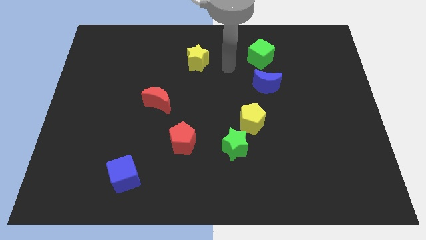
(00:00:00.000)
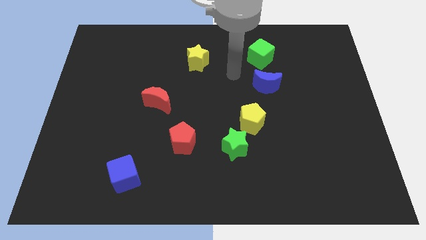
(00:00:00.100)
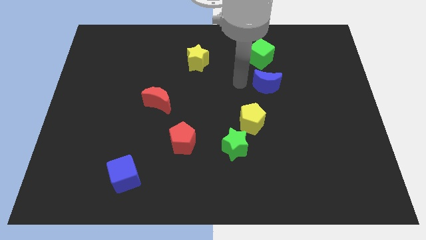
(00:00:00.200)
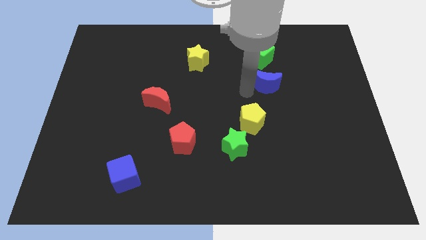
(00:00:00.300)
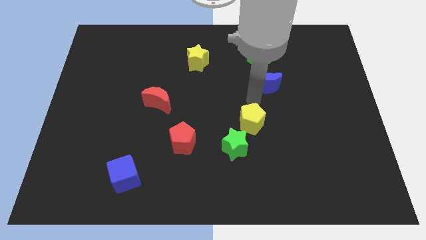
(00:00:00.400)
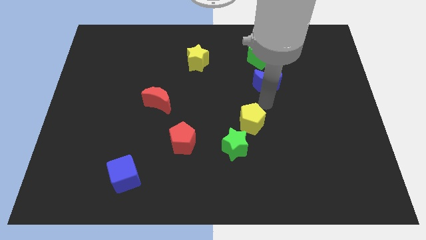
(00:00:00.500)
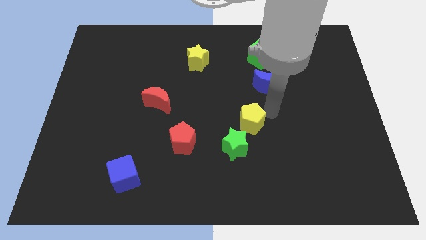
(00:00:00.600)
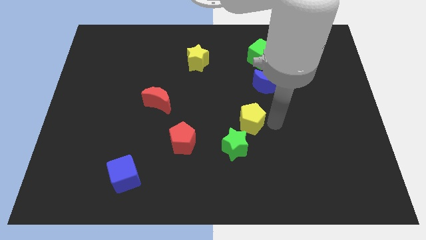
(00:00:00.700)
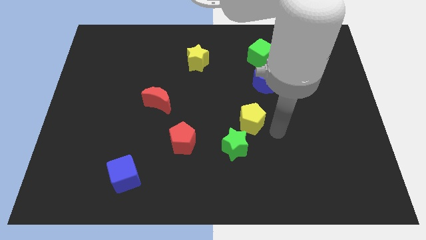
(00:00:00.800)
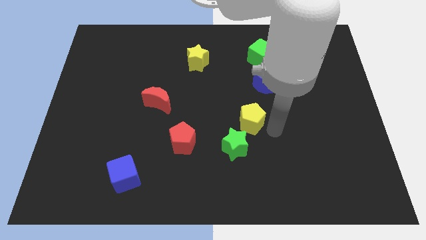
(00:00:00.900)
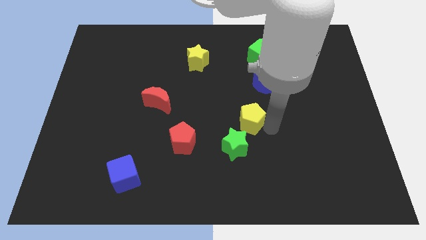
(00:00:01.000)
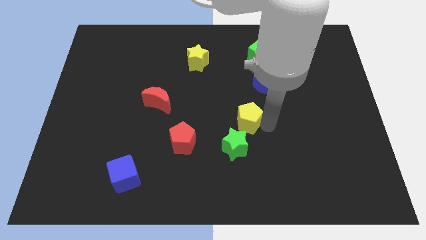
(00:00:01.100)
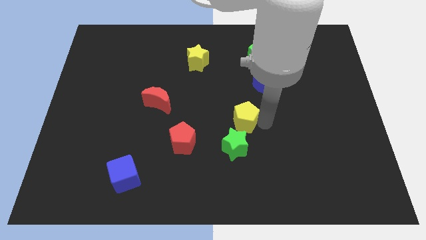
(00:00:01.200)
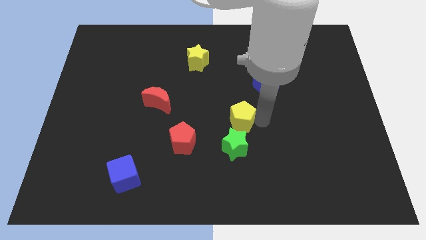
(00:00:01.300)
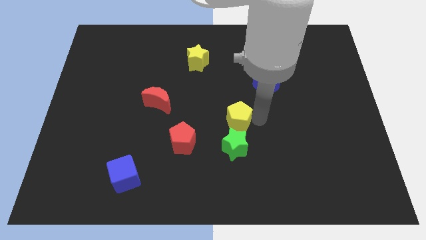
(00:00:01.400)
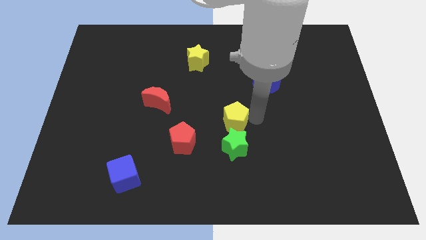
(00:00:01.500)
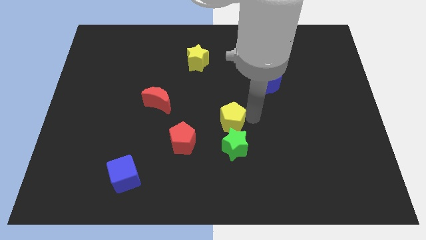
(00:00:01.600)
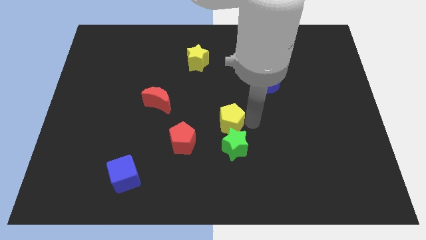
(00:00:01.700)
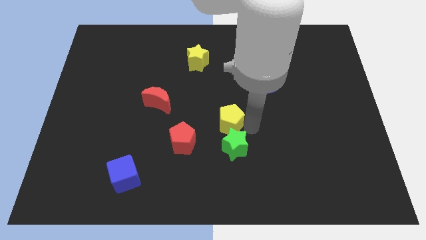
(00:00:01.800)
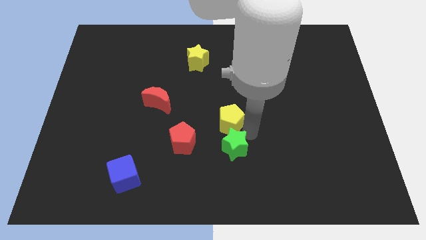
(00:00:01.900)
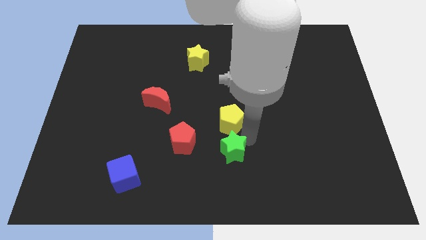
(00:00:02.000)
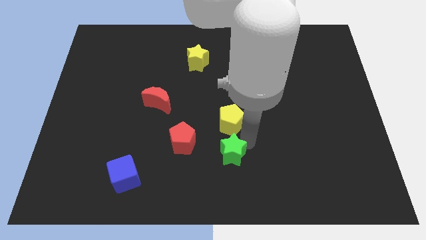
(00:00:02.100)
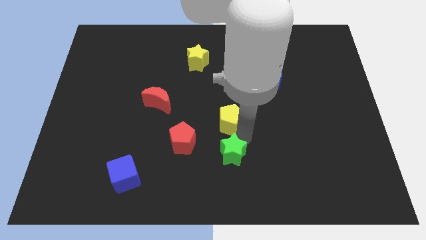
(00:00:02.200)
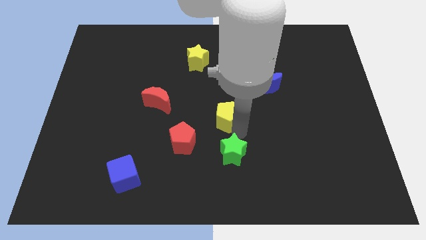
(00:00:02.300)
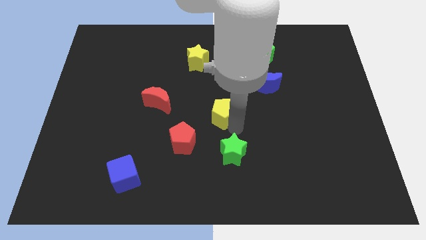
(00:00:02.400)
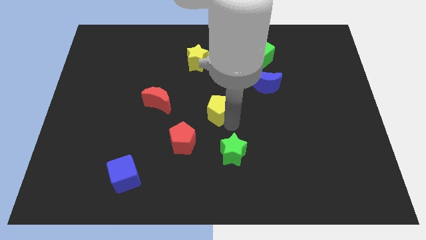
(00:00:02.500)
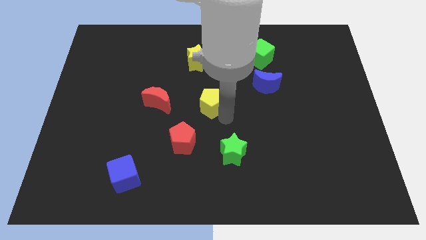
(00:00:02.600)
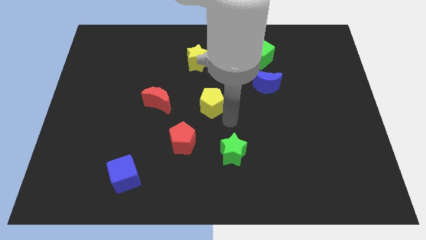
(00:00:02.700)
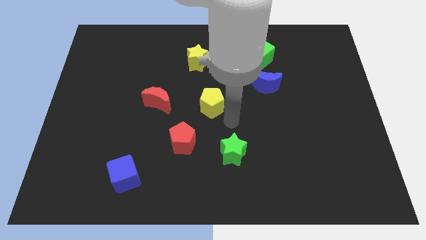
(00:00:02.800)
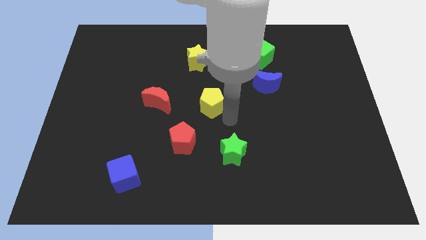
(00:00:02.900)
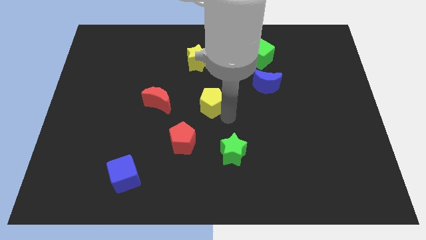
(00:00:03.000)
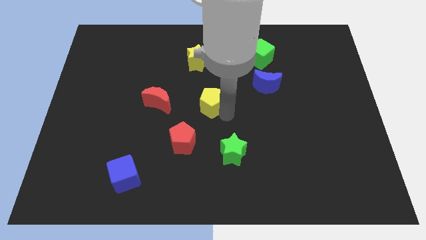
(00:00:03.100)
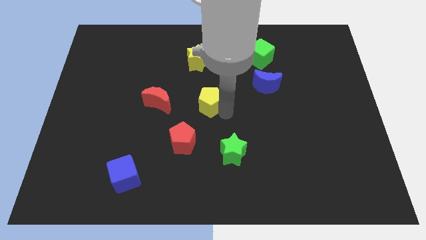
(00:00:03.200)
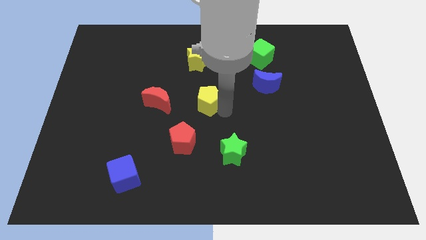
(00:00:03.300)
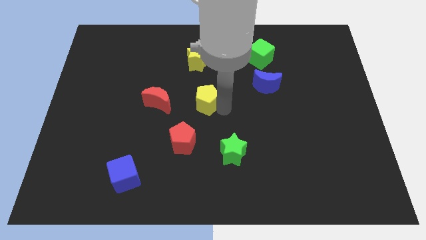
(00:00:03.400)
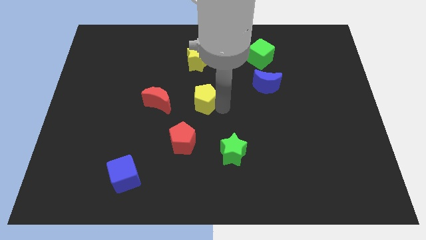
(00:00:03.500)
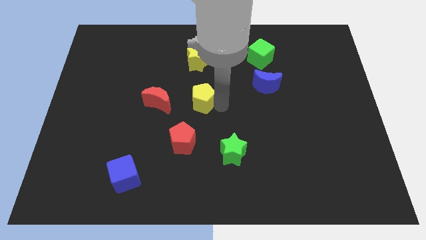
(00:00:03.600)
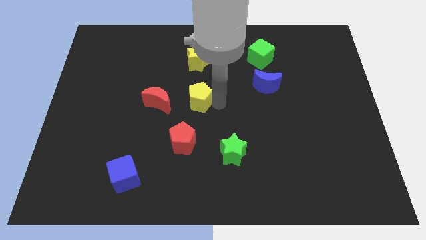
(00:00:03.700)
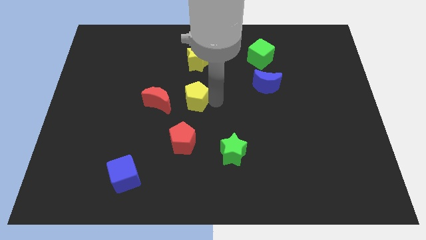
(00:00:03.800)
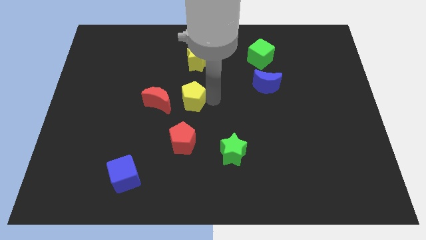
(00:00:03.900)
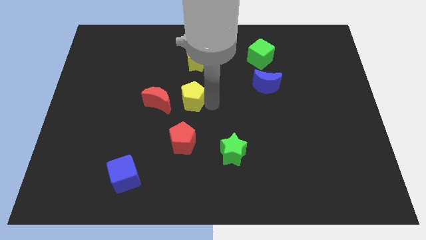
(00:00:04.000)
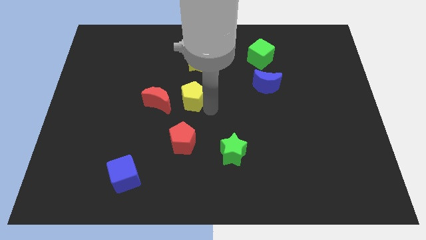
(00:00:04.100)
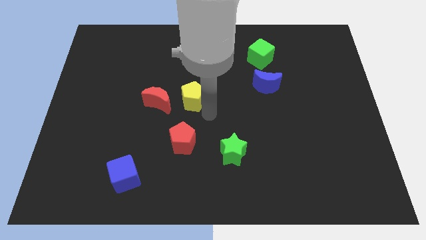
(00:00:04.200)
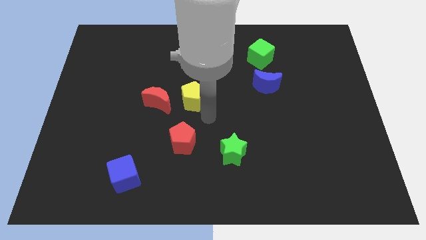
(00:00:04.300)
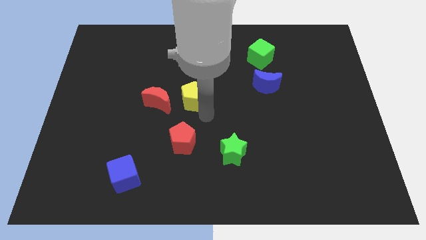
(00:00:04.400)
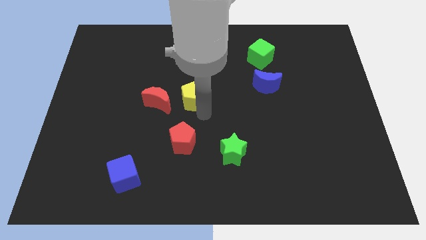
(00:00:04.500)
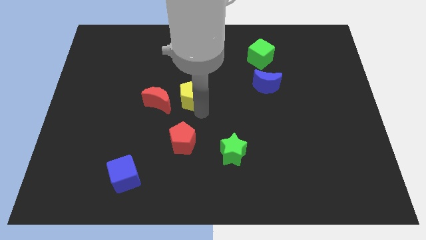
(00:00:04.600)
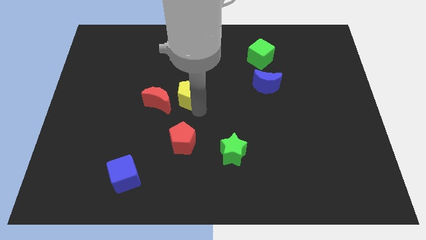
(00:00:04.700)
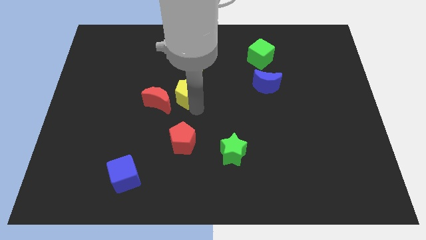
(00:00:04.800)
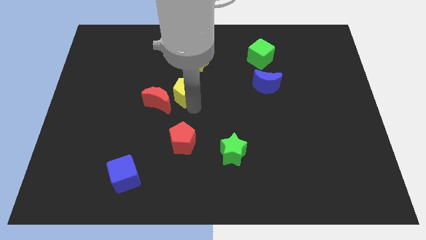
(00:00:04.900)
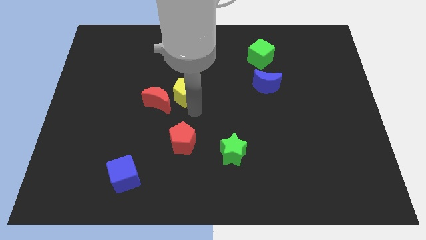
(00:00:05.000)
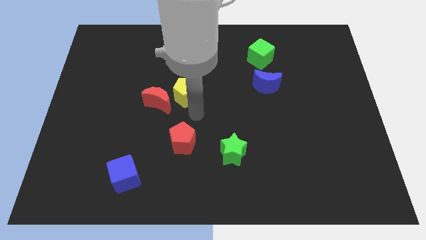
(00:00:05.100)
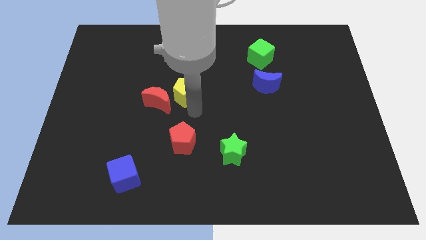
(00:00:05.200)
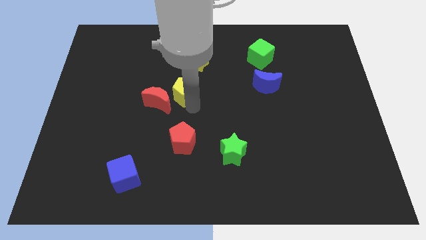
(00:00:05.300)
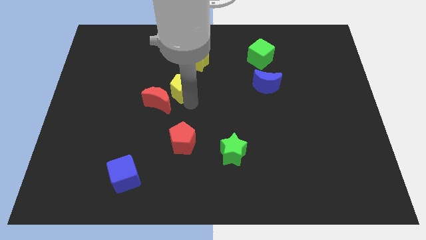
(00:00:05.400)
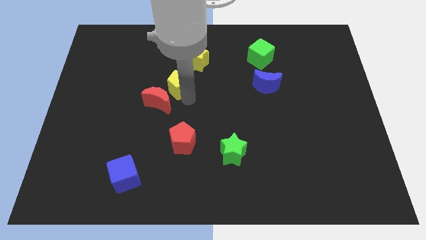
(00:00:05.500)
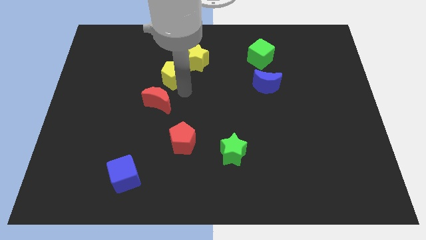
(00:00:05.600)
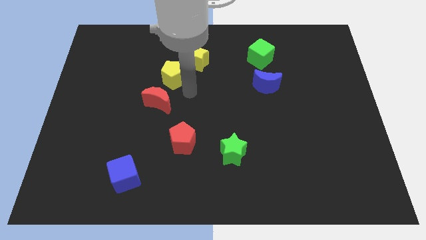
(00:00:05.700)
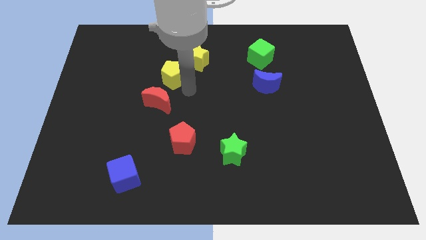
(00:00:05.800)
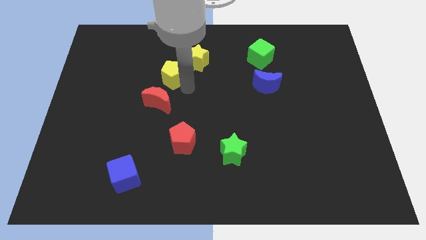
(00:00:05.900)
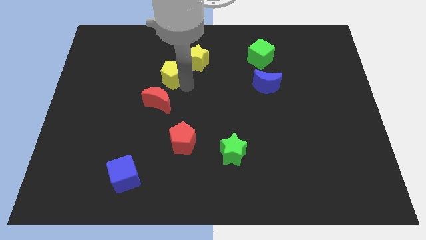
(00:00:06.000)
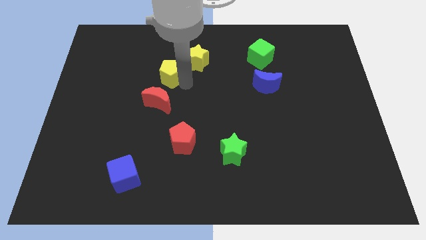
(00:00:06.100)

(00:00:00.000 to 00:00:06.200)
move the yellow pentagon left of the yellow star

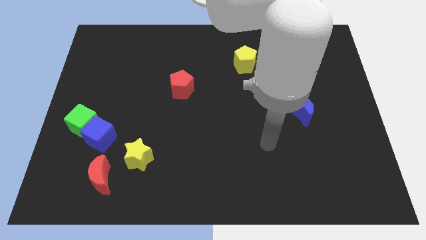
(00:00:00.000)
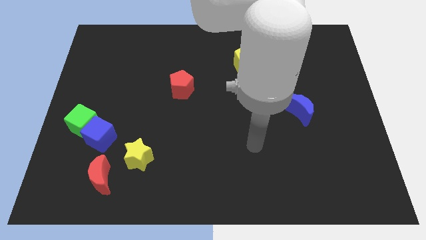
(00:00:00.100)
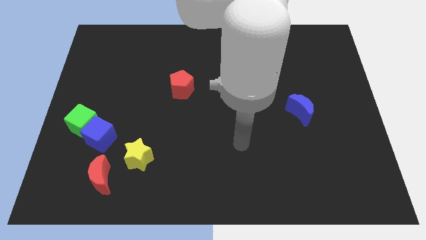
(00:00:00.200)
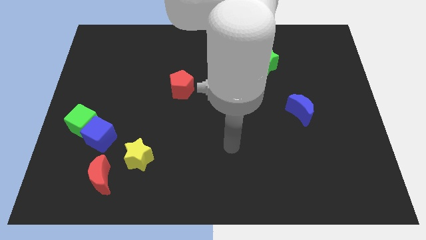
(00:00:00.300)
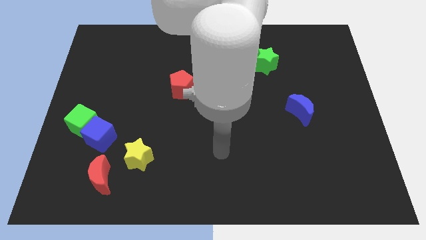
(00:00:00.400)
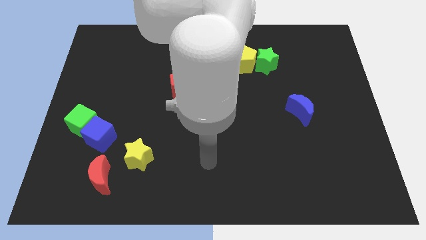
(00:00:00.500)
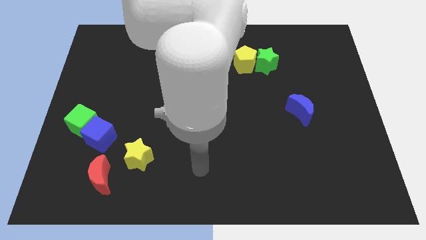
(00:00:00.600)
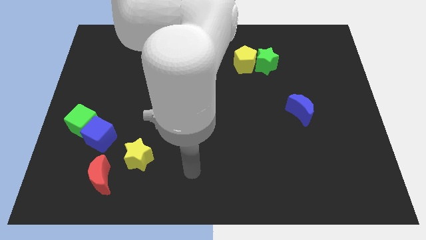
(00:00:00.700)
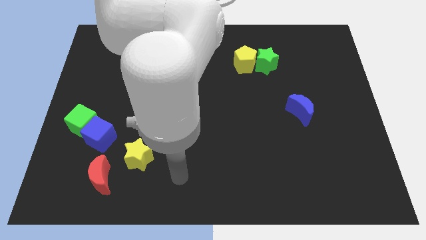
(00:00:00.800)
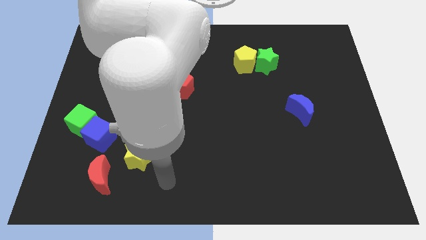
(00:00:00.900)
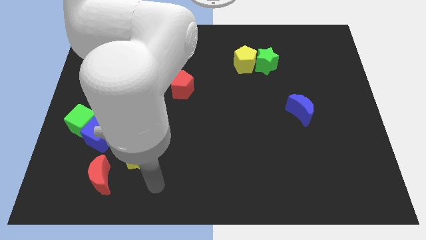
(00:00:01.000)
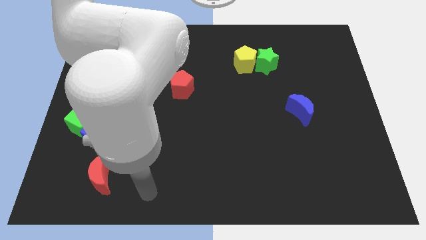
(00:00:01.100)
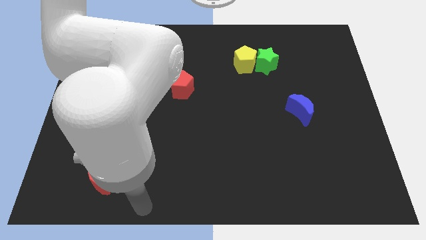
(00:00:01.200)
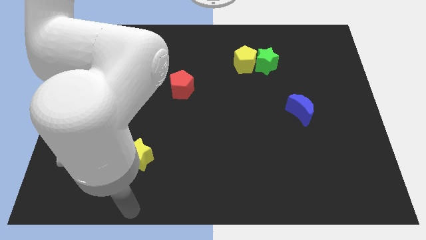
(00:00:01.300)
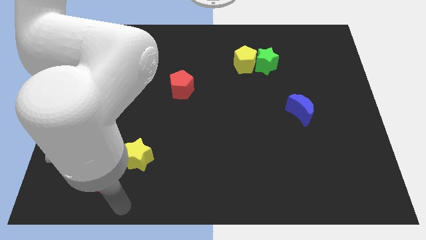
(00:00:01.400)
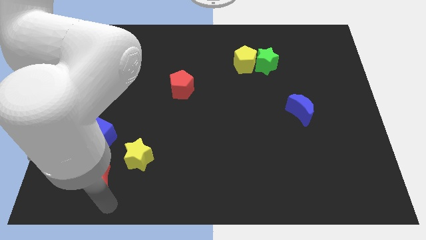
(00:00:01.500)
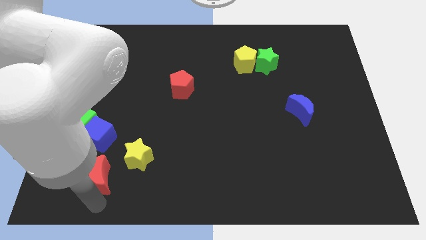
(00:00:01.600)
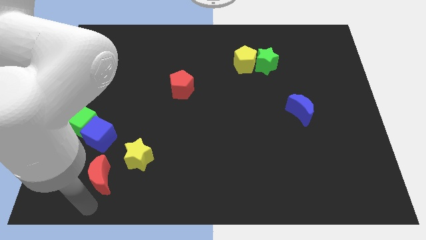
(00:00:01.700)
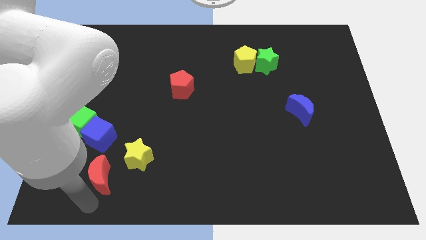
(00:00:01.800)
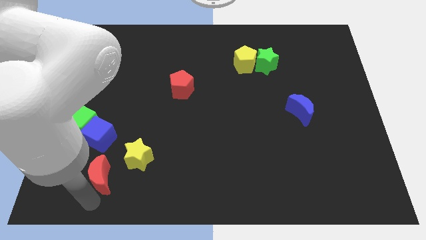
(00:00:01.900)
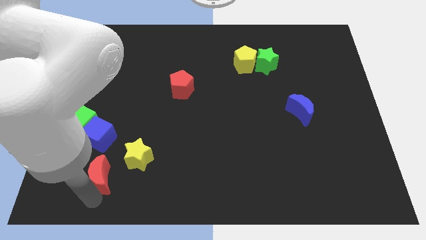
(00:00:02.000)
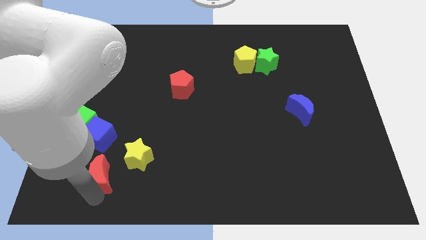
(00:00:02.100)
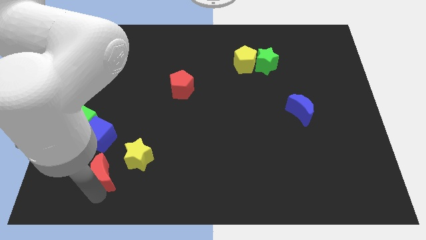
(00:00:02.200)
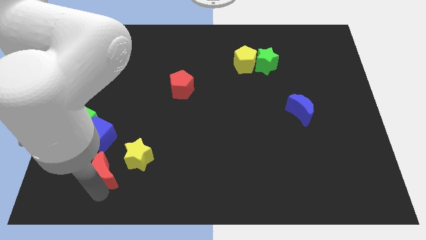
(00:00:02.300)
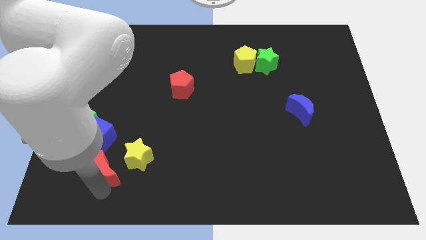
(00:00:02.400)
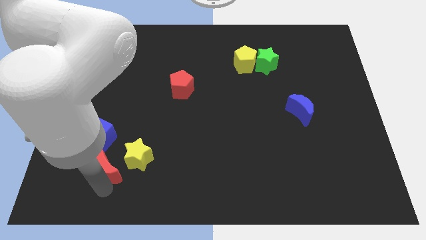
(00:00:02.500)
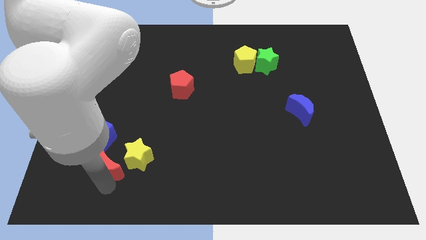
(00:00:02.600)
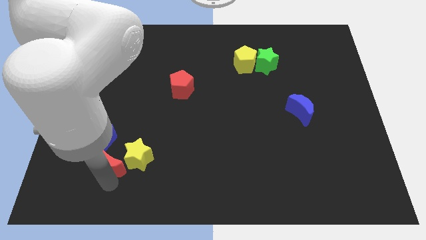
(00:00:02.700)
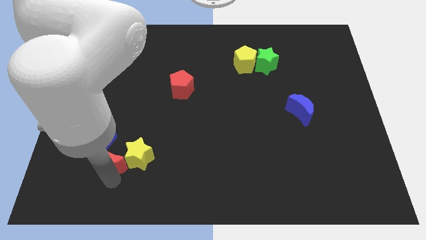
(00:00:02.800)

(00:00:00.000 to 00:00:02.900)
move the red moon diagonally down and to the right of the green cube
